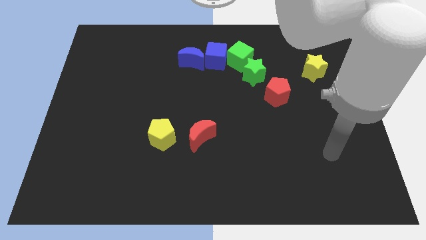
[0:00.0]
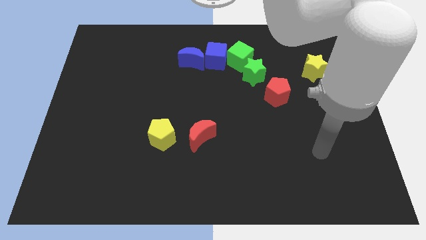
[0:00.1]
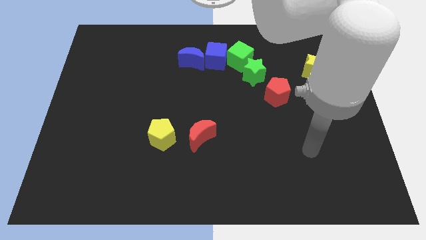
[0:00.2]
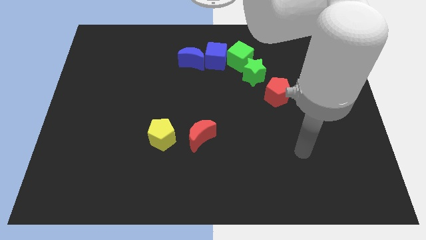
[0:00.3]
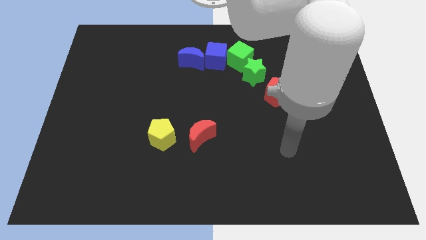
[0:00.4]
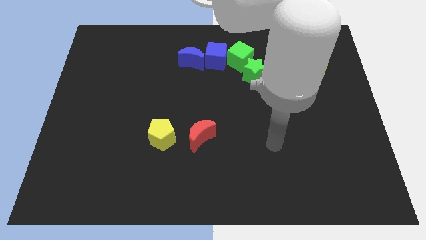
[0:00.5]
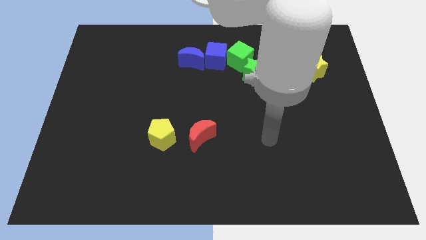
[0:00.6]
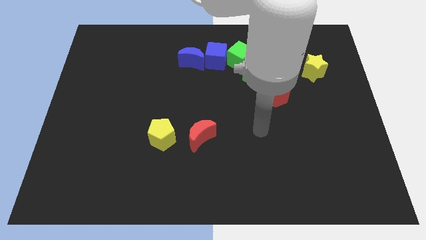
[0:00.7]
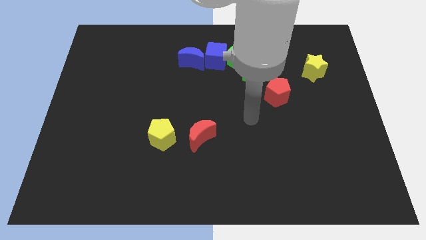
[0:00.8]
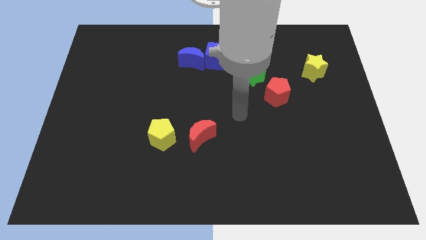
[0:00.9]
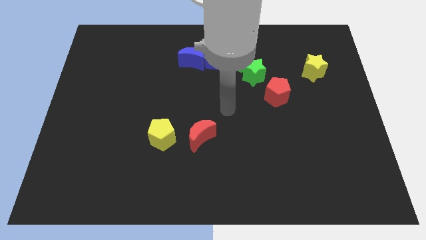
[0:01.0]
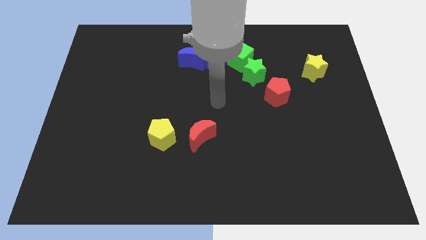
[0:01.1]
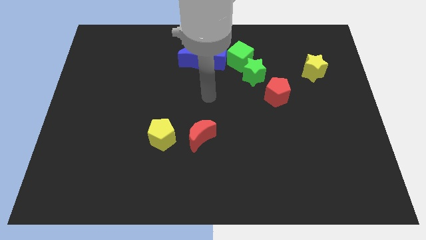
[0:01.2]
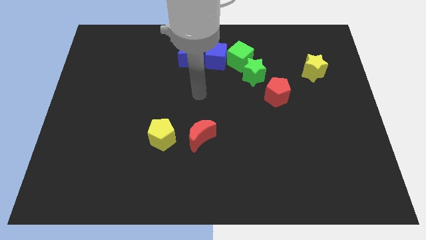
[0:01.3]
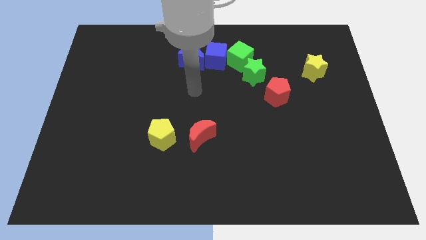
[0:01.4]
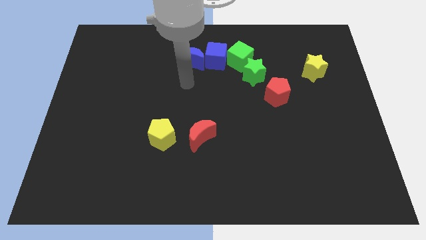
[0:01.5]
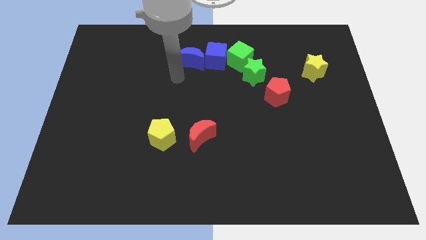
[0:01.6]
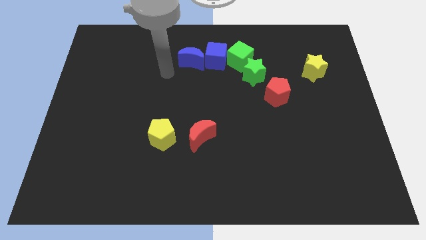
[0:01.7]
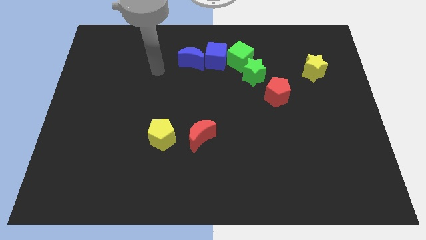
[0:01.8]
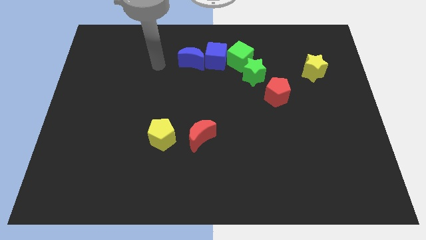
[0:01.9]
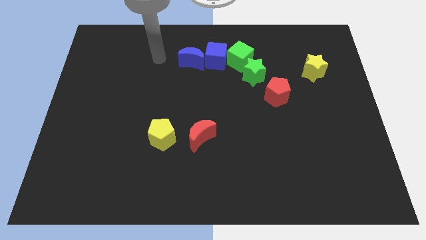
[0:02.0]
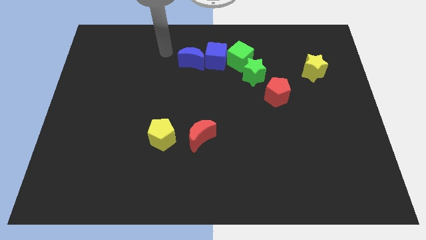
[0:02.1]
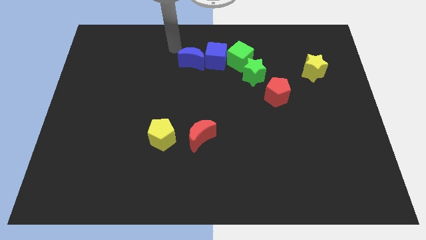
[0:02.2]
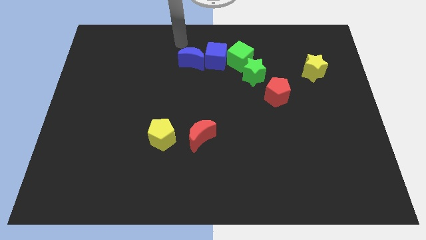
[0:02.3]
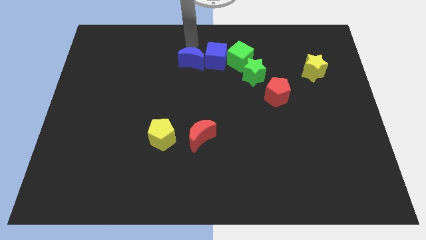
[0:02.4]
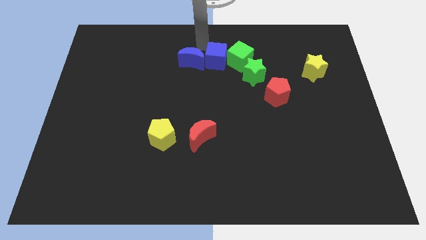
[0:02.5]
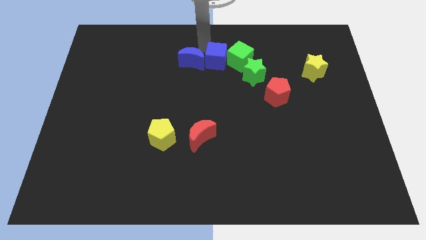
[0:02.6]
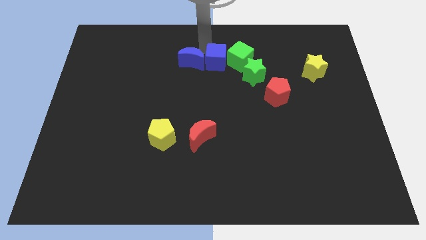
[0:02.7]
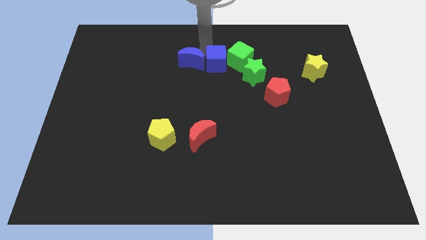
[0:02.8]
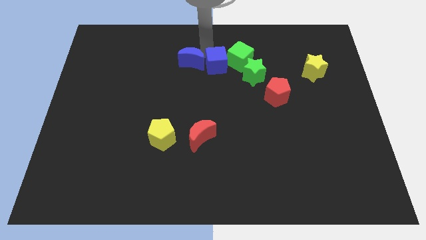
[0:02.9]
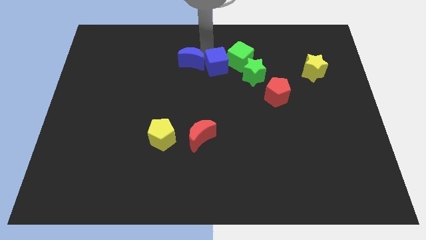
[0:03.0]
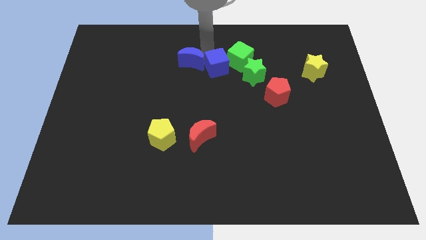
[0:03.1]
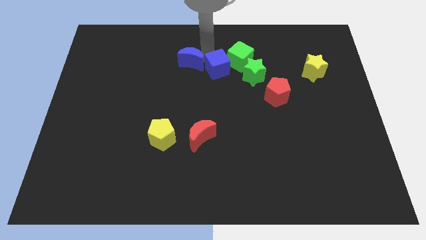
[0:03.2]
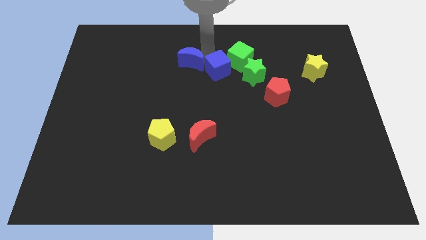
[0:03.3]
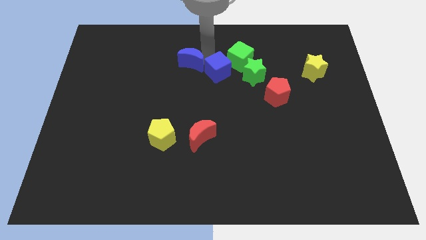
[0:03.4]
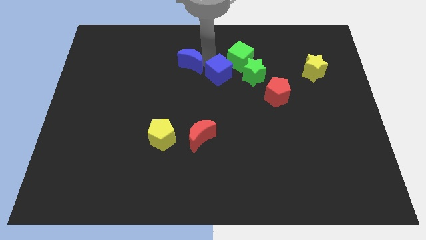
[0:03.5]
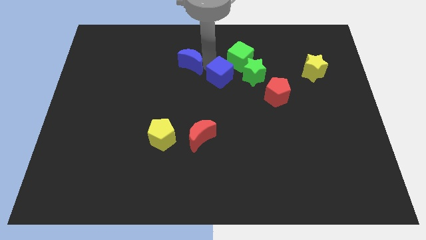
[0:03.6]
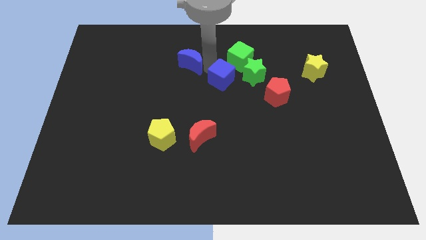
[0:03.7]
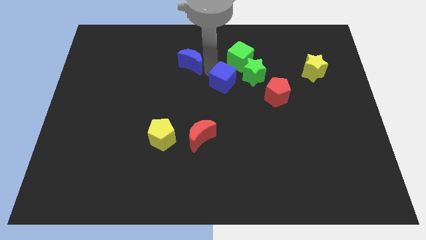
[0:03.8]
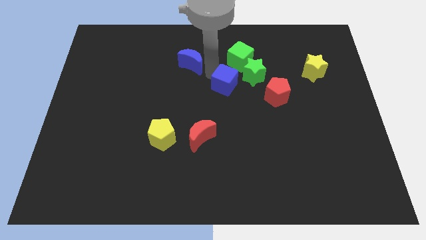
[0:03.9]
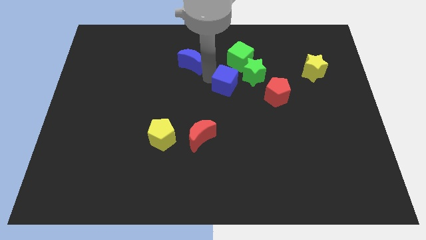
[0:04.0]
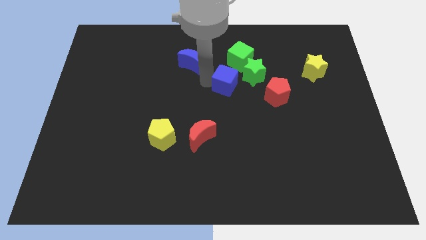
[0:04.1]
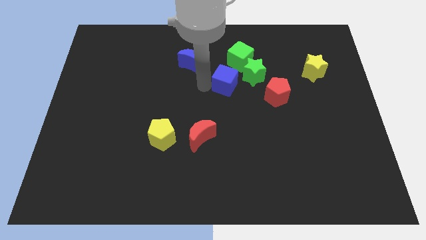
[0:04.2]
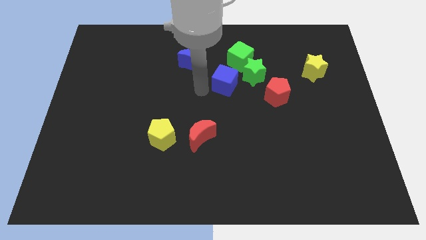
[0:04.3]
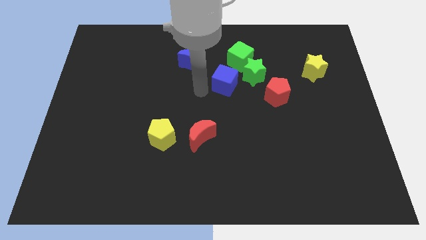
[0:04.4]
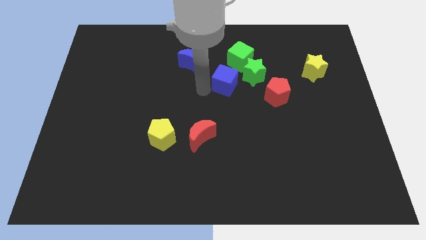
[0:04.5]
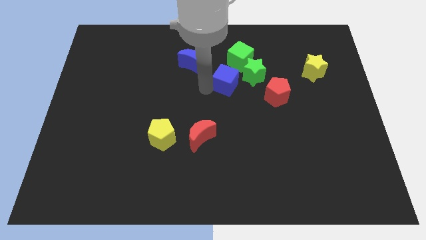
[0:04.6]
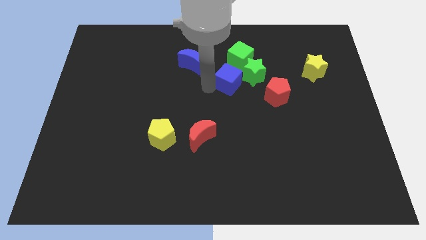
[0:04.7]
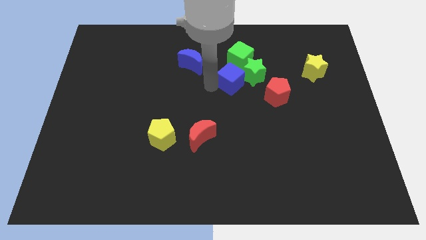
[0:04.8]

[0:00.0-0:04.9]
slide the blue cube close to the green star

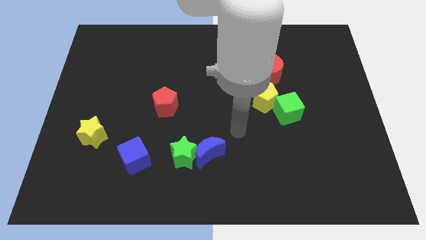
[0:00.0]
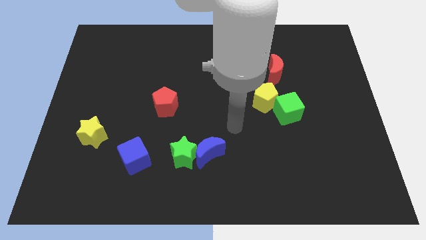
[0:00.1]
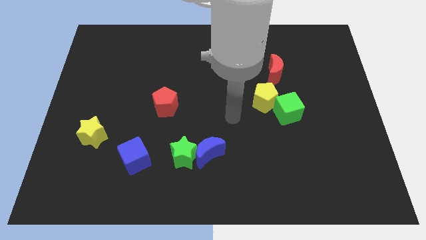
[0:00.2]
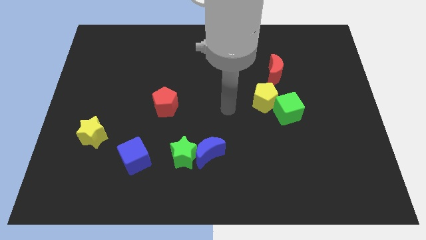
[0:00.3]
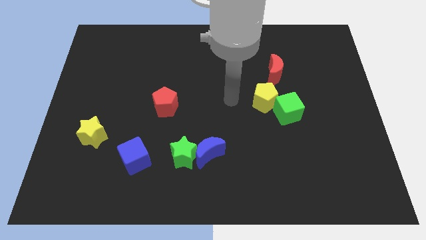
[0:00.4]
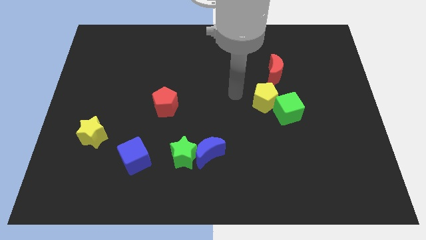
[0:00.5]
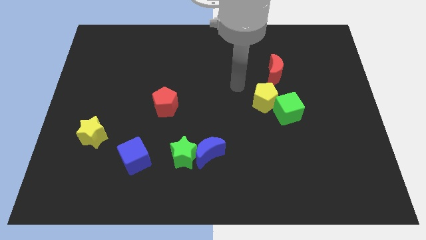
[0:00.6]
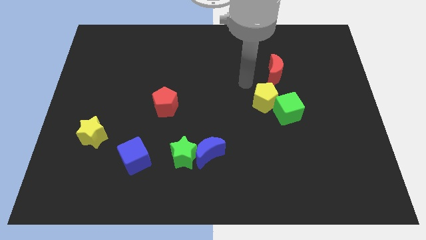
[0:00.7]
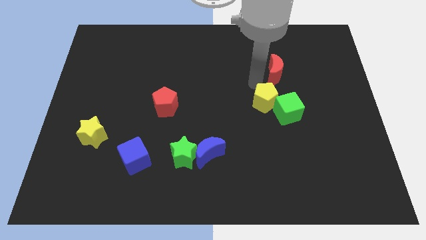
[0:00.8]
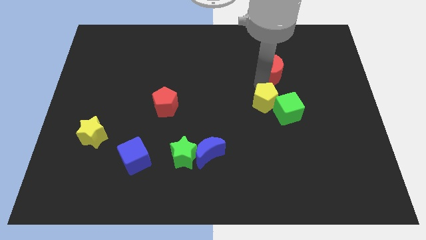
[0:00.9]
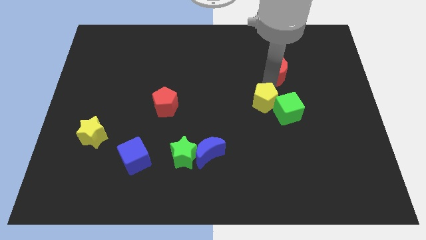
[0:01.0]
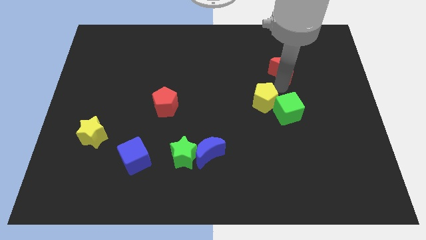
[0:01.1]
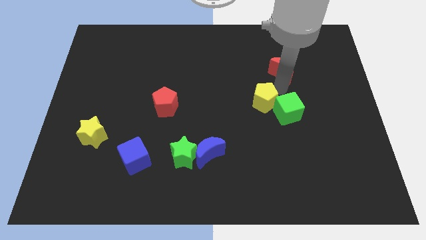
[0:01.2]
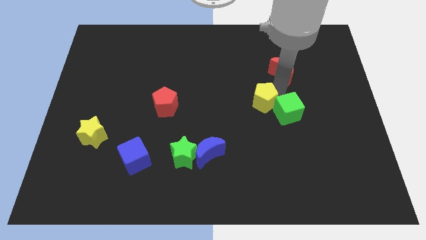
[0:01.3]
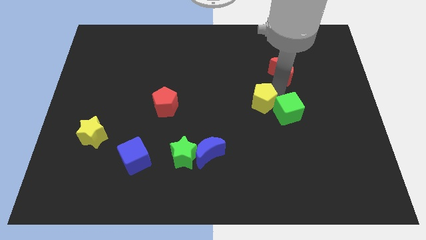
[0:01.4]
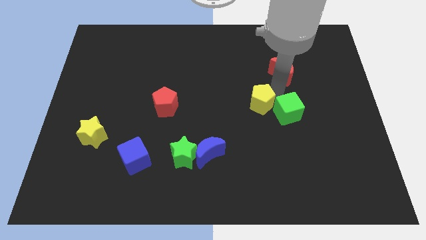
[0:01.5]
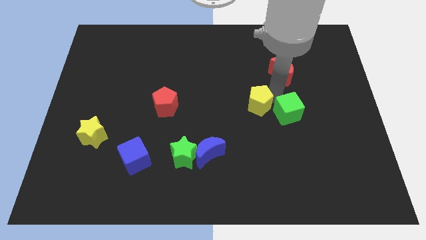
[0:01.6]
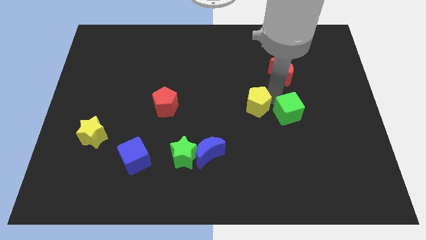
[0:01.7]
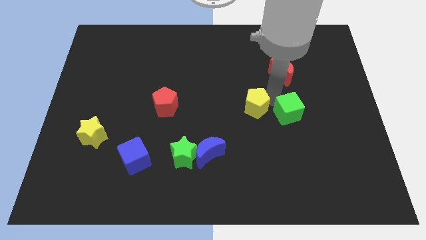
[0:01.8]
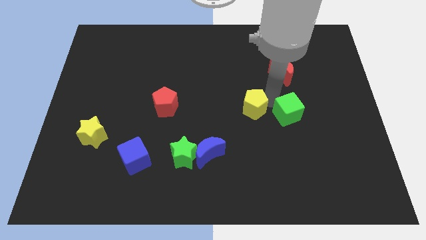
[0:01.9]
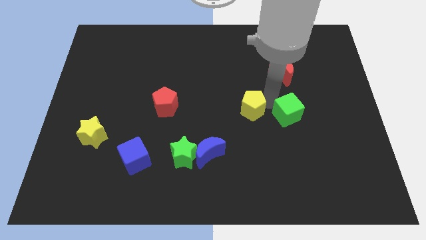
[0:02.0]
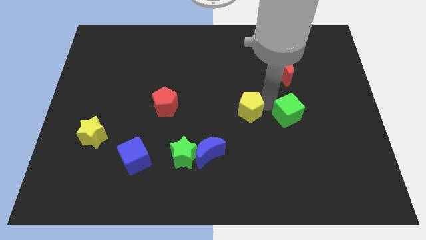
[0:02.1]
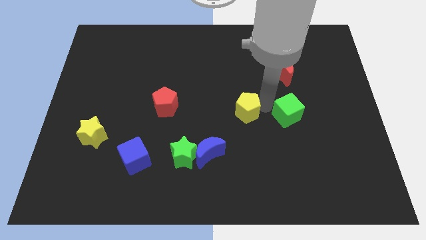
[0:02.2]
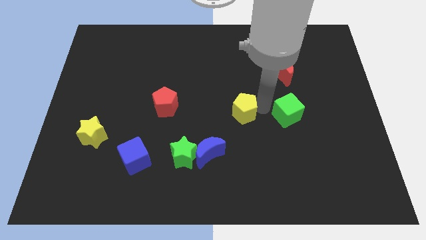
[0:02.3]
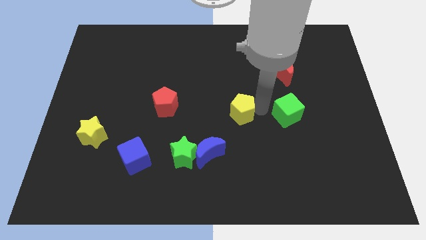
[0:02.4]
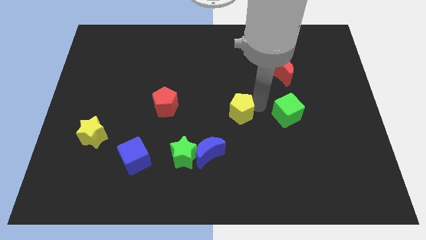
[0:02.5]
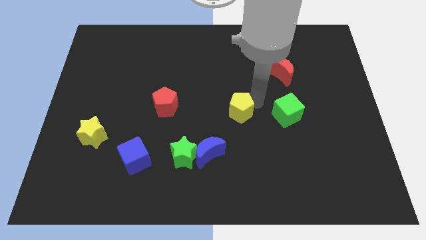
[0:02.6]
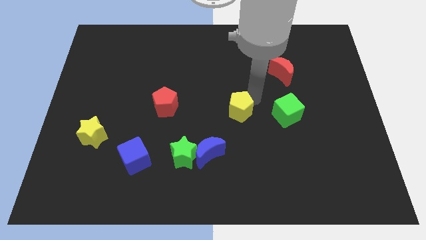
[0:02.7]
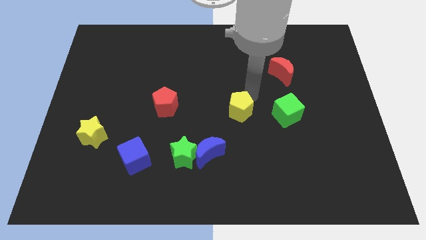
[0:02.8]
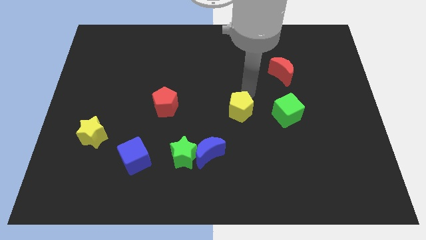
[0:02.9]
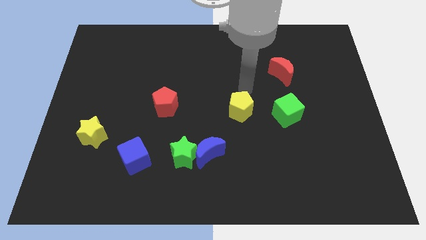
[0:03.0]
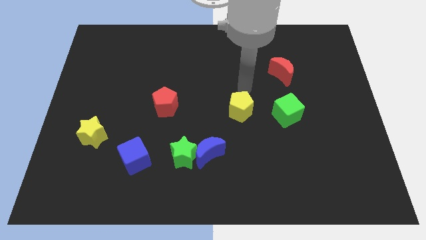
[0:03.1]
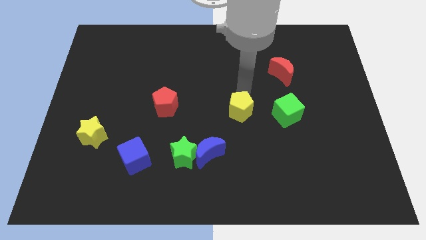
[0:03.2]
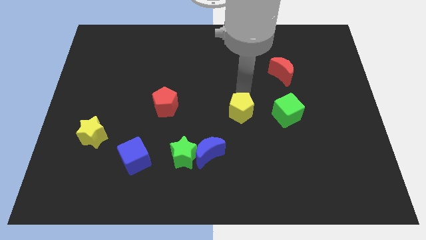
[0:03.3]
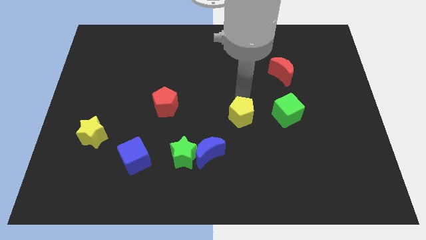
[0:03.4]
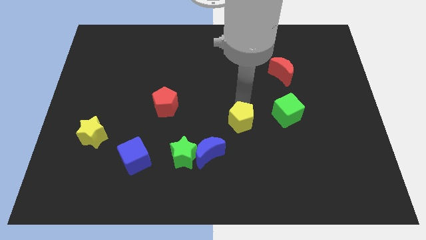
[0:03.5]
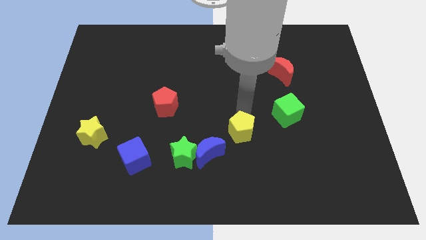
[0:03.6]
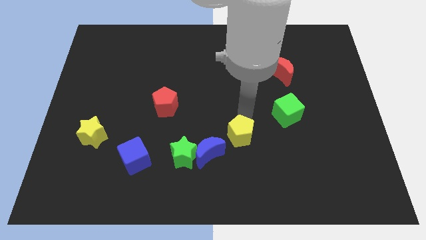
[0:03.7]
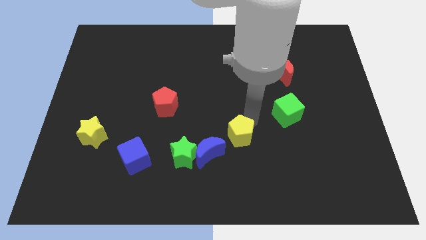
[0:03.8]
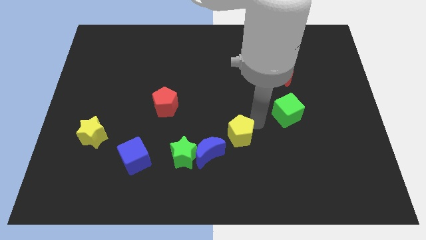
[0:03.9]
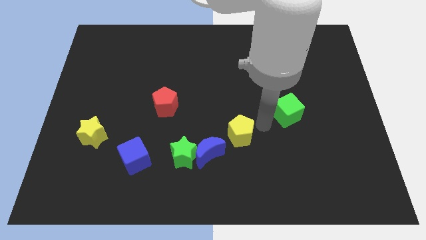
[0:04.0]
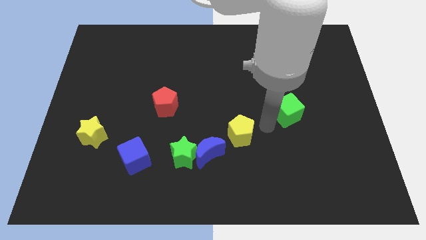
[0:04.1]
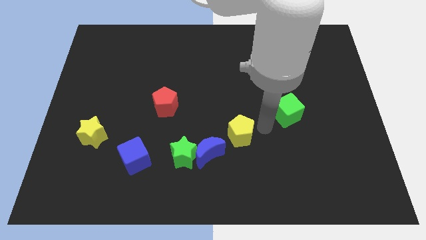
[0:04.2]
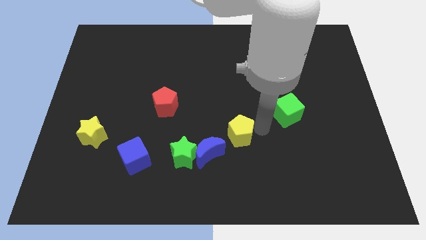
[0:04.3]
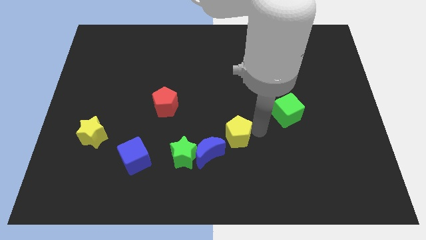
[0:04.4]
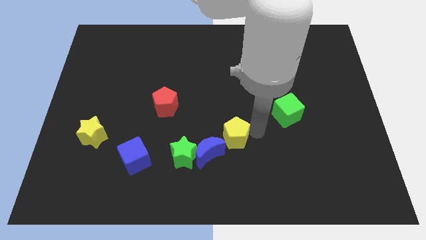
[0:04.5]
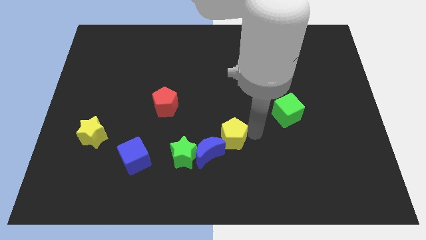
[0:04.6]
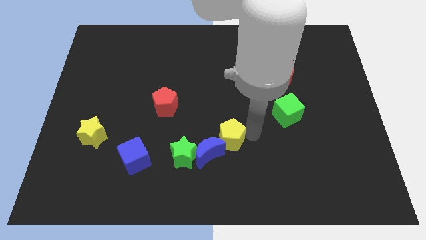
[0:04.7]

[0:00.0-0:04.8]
push the yellow pentagon towards the blue moon
